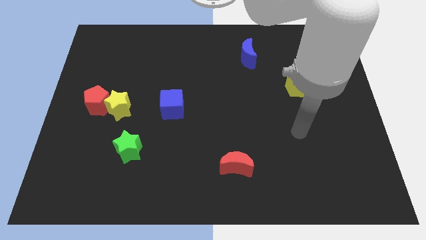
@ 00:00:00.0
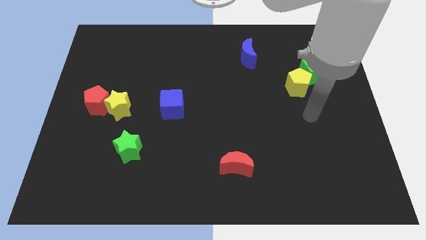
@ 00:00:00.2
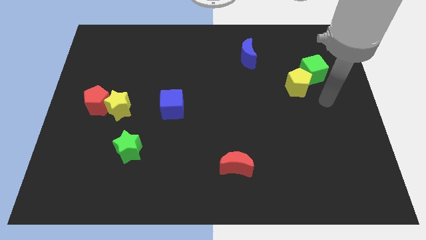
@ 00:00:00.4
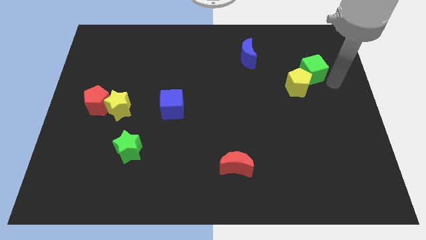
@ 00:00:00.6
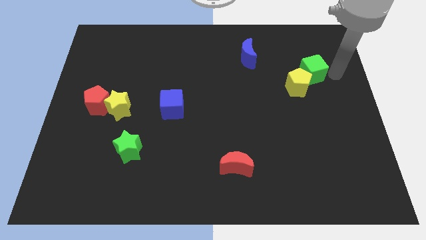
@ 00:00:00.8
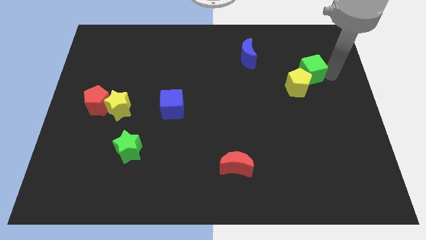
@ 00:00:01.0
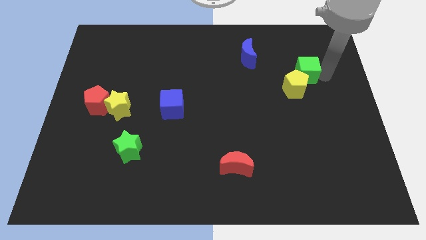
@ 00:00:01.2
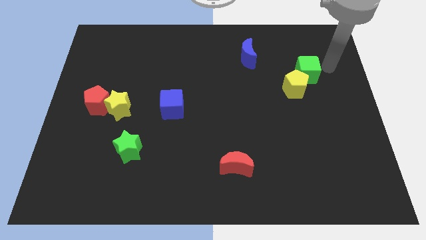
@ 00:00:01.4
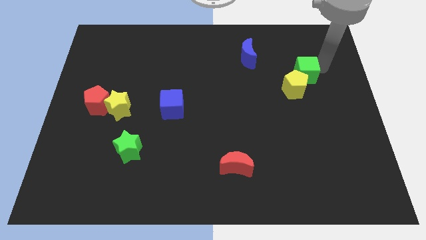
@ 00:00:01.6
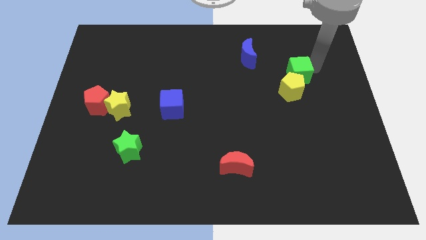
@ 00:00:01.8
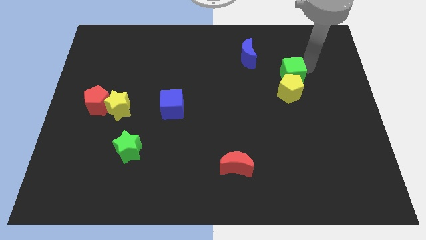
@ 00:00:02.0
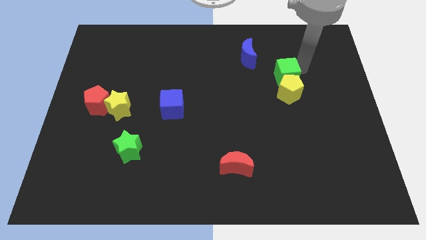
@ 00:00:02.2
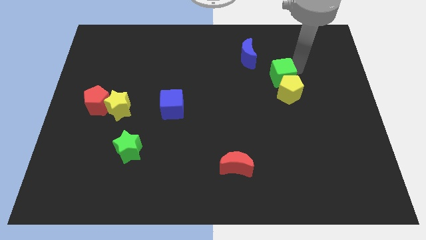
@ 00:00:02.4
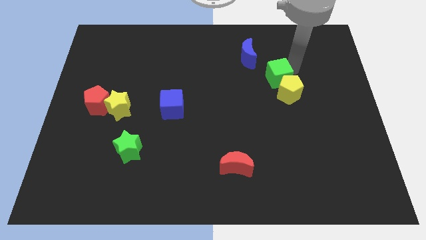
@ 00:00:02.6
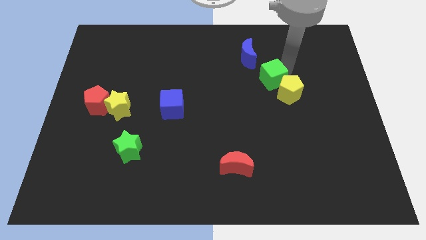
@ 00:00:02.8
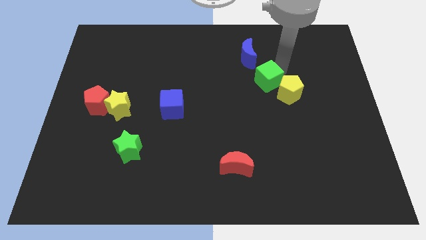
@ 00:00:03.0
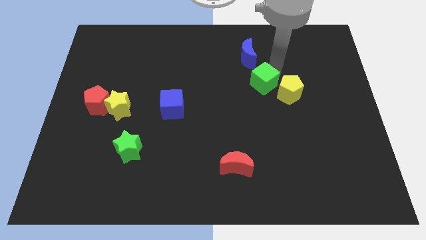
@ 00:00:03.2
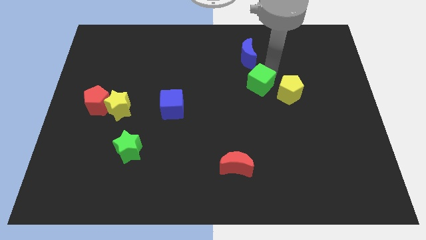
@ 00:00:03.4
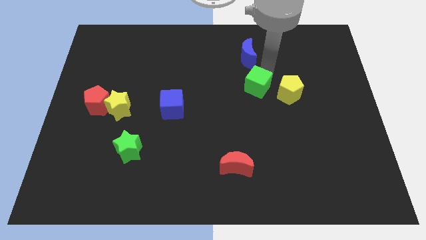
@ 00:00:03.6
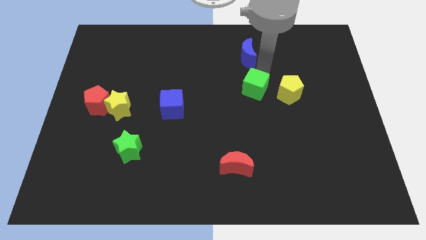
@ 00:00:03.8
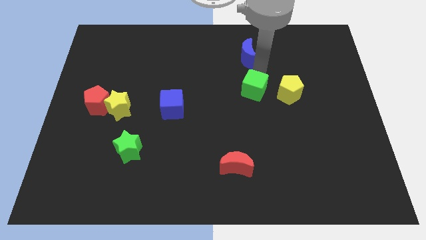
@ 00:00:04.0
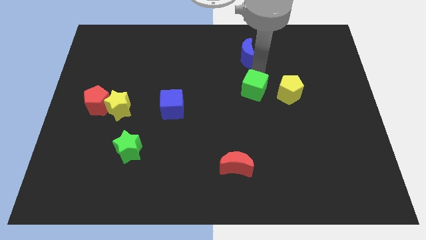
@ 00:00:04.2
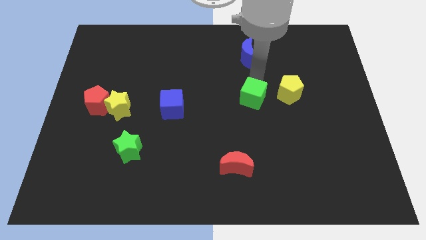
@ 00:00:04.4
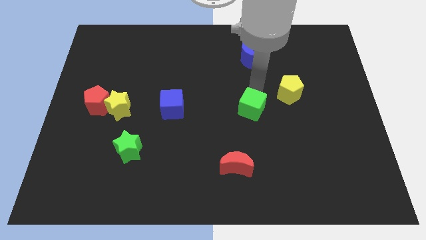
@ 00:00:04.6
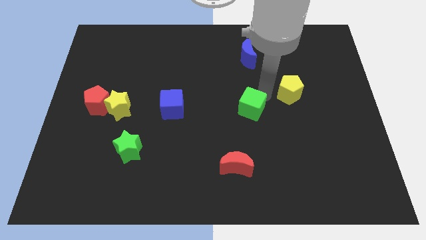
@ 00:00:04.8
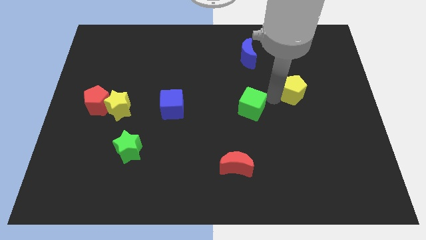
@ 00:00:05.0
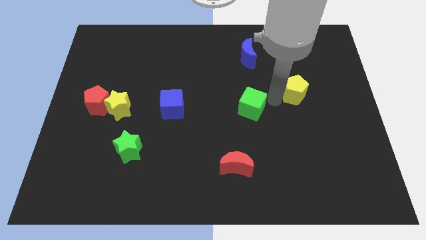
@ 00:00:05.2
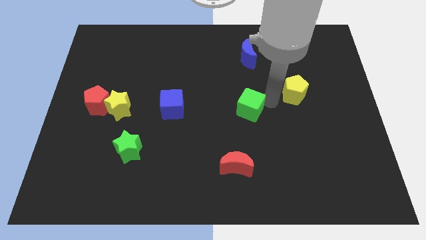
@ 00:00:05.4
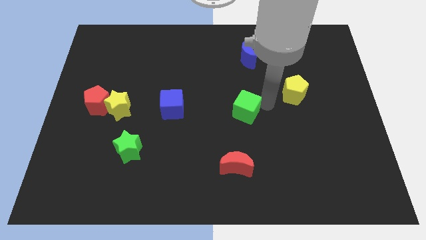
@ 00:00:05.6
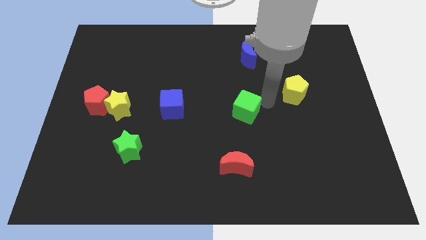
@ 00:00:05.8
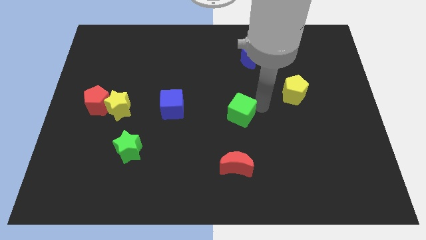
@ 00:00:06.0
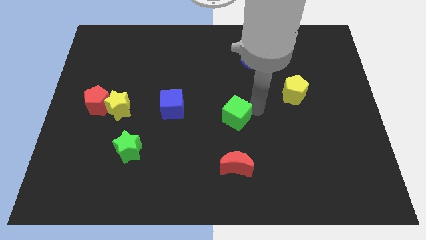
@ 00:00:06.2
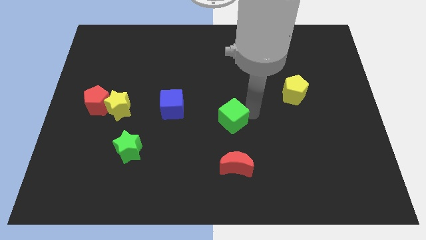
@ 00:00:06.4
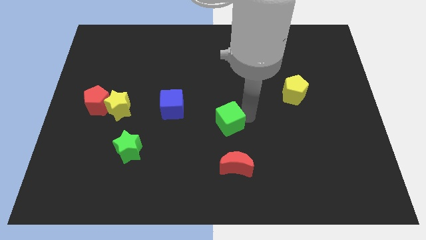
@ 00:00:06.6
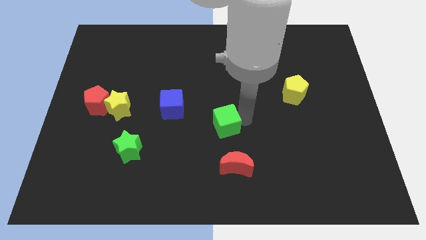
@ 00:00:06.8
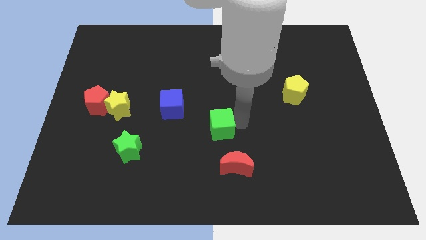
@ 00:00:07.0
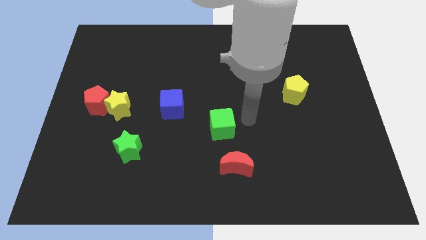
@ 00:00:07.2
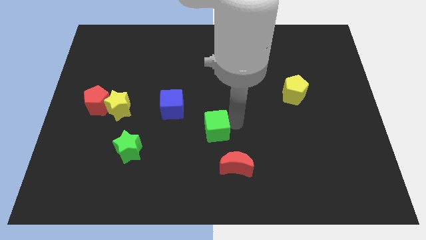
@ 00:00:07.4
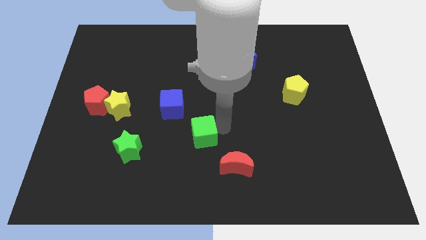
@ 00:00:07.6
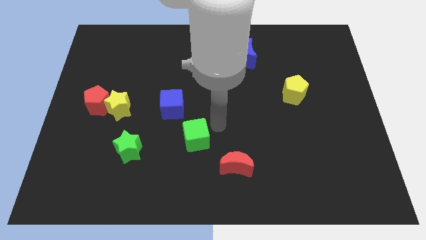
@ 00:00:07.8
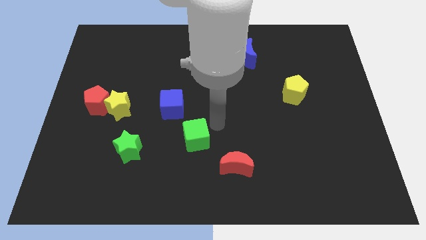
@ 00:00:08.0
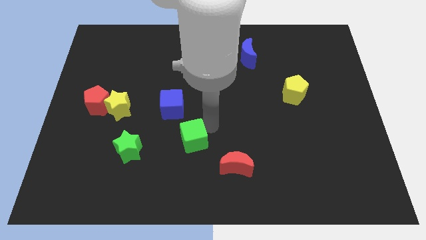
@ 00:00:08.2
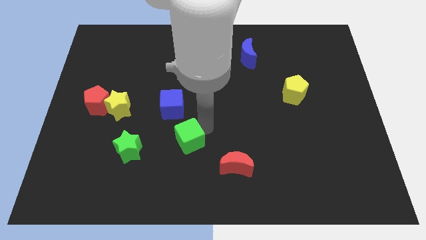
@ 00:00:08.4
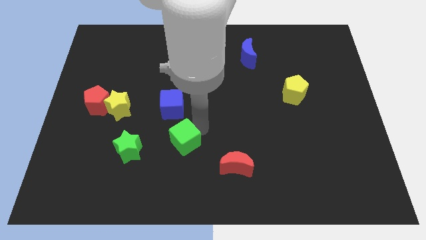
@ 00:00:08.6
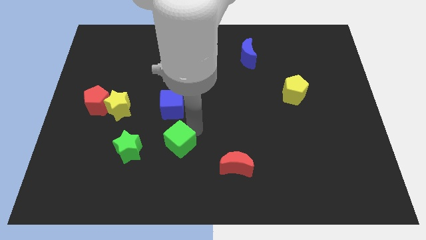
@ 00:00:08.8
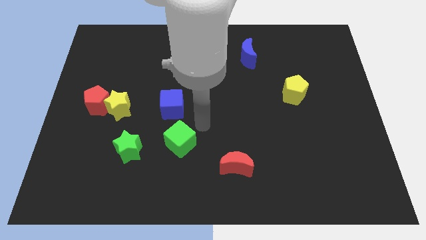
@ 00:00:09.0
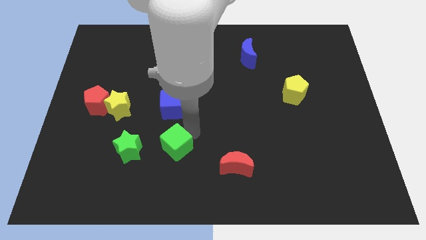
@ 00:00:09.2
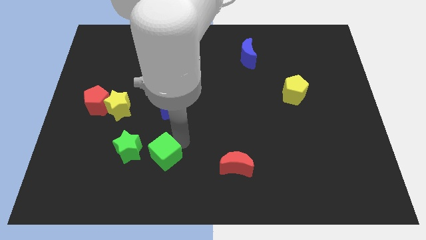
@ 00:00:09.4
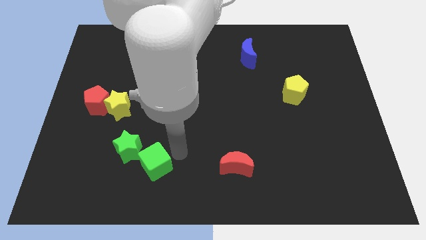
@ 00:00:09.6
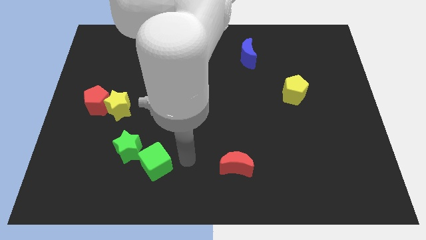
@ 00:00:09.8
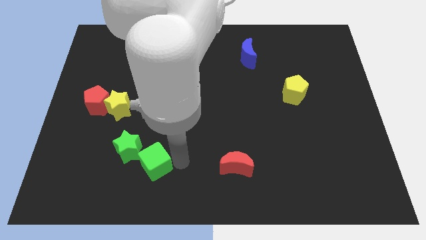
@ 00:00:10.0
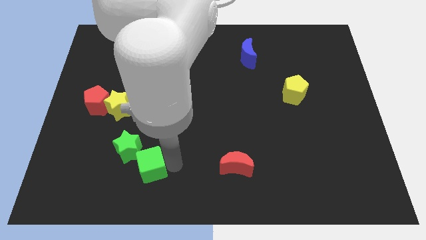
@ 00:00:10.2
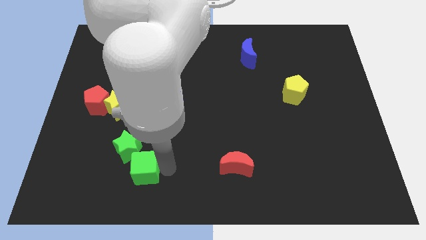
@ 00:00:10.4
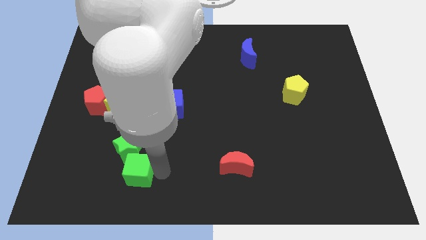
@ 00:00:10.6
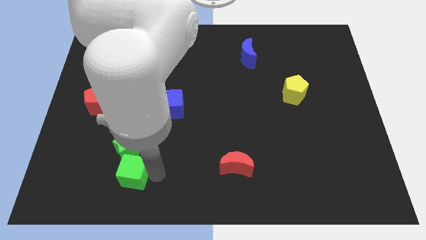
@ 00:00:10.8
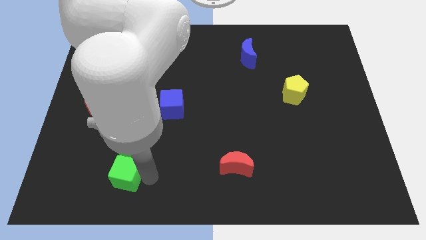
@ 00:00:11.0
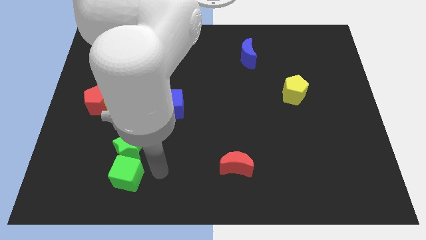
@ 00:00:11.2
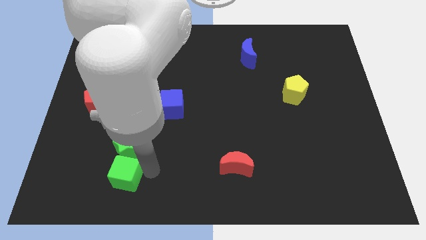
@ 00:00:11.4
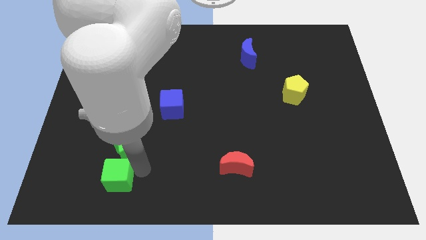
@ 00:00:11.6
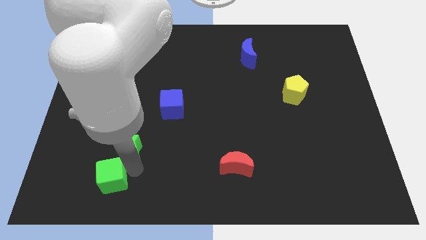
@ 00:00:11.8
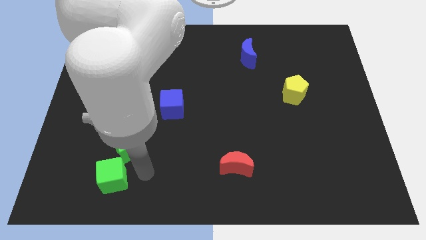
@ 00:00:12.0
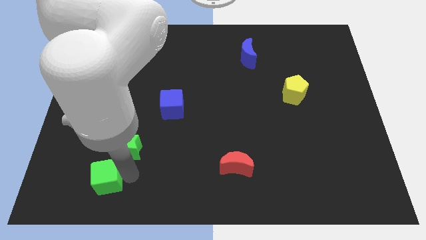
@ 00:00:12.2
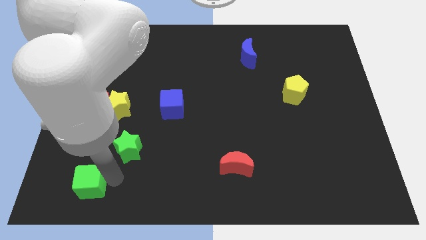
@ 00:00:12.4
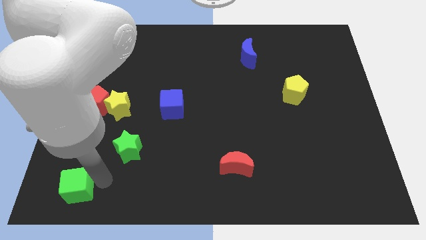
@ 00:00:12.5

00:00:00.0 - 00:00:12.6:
push the green cube to the bottom left of the board
